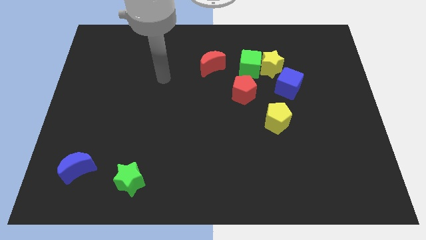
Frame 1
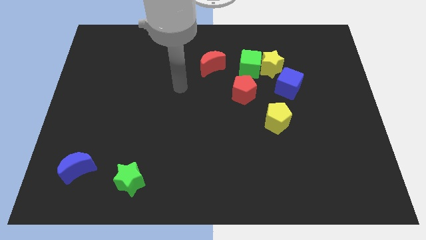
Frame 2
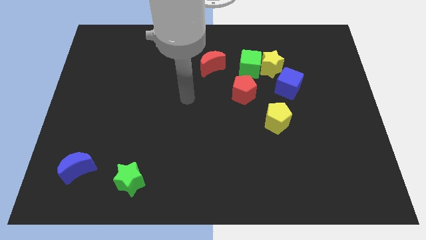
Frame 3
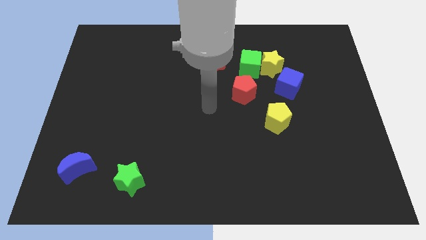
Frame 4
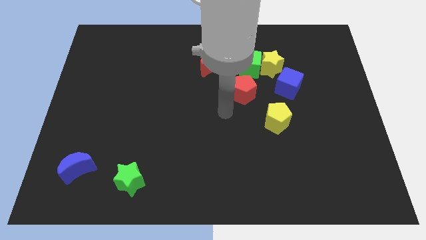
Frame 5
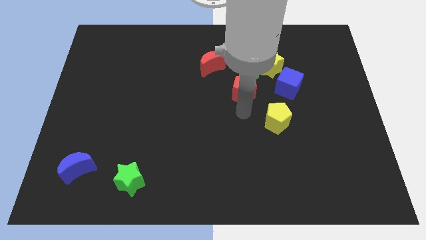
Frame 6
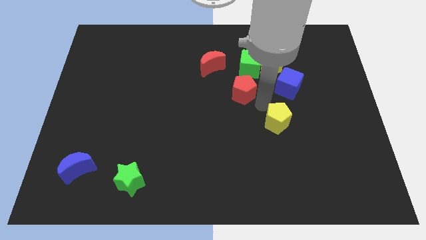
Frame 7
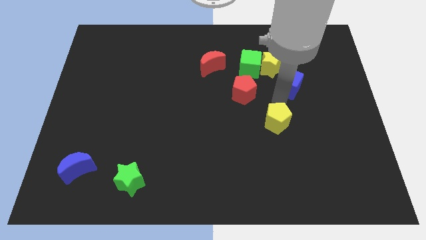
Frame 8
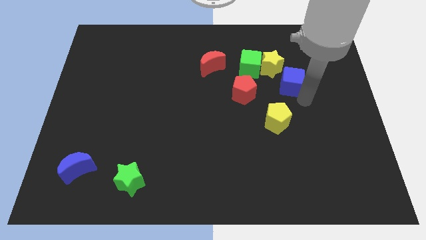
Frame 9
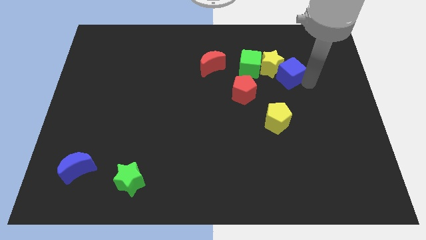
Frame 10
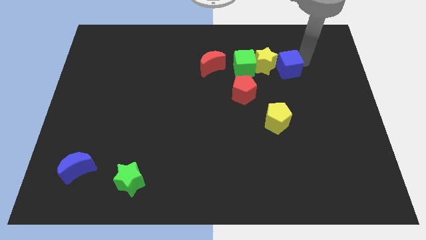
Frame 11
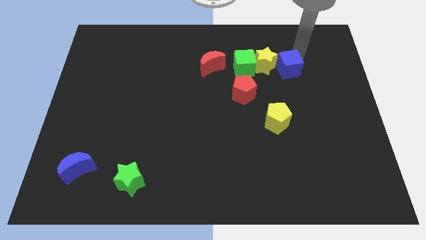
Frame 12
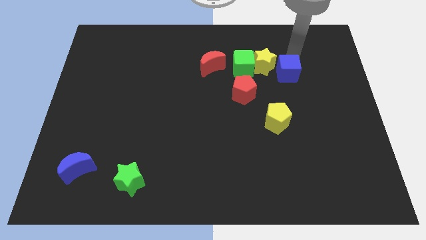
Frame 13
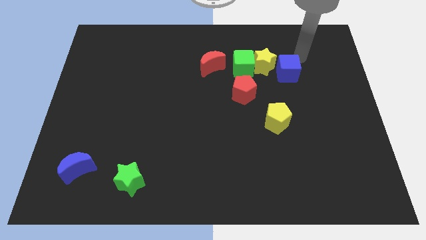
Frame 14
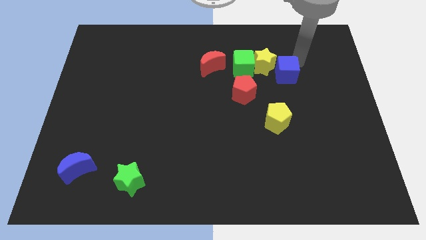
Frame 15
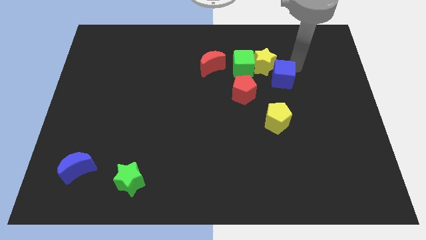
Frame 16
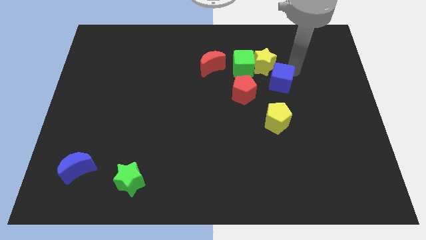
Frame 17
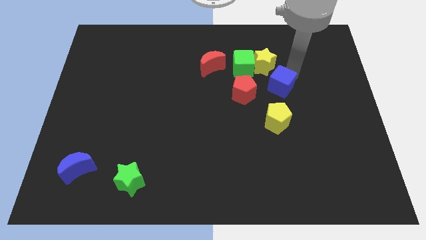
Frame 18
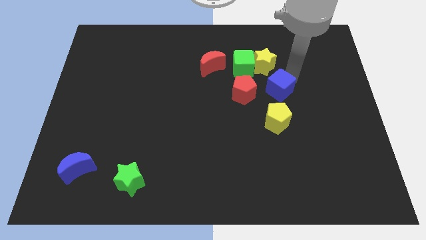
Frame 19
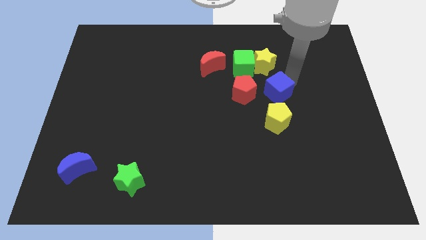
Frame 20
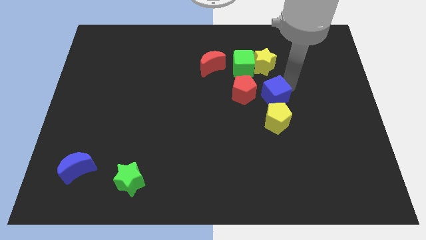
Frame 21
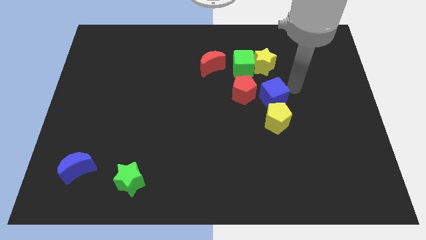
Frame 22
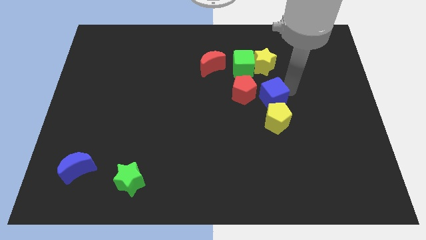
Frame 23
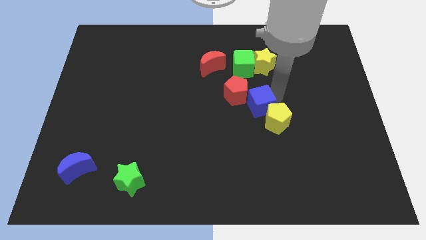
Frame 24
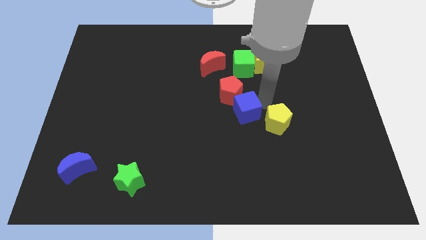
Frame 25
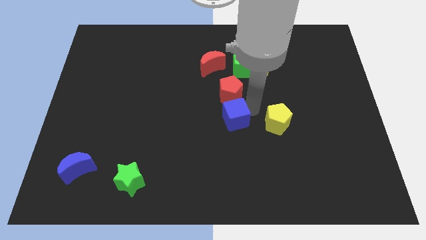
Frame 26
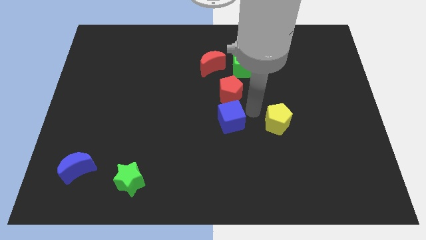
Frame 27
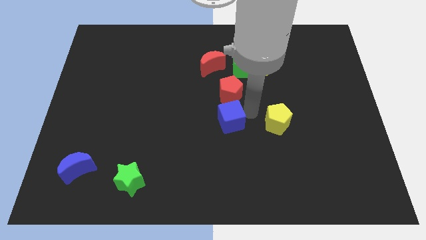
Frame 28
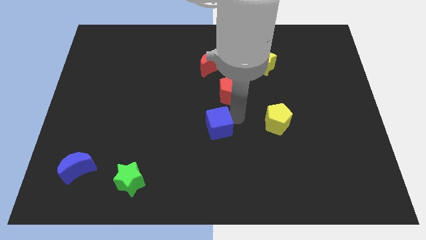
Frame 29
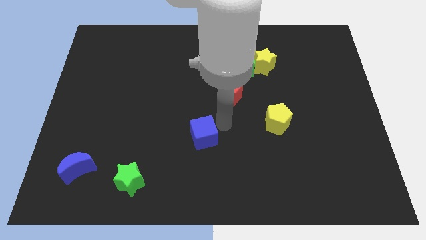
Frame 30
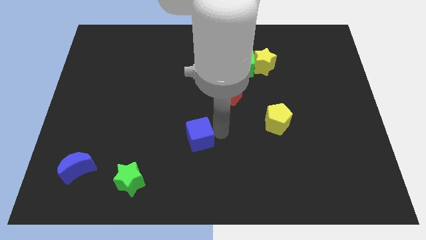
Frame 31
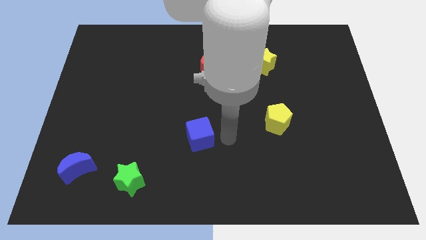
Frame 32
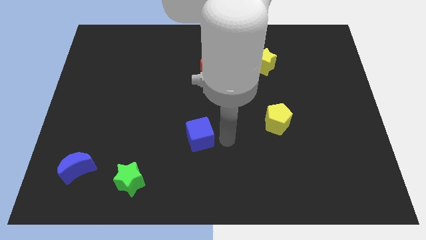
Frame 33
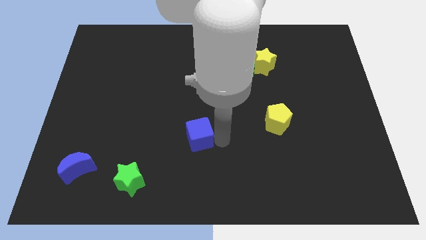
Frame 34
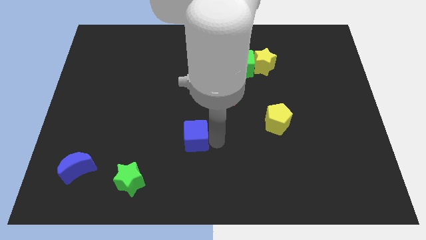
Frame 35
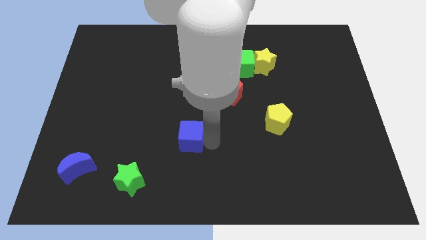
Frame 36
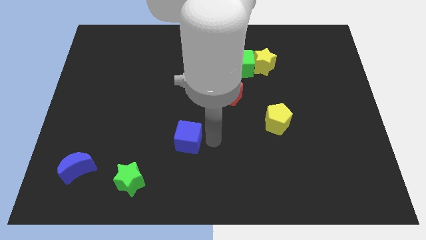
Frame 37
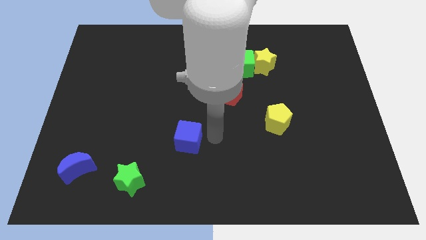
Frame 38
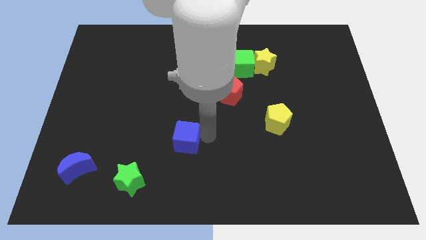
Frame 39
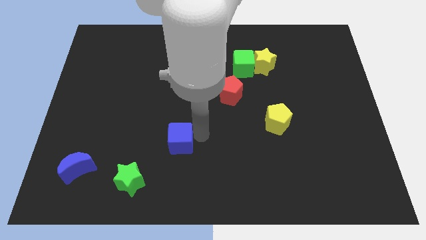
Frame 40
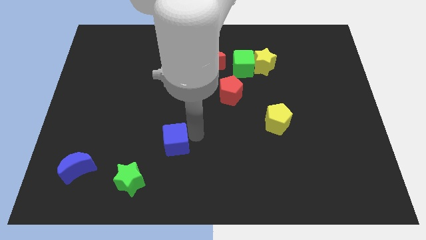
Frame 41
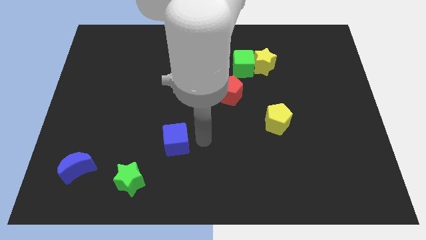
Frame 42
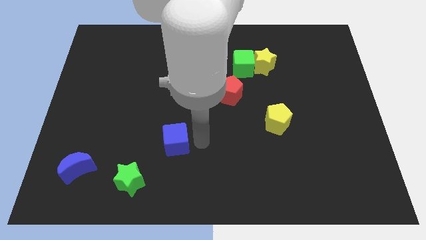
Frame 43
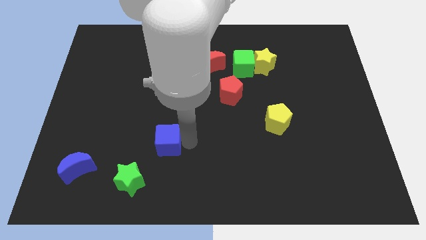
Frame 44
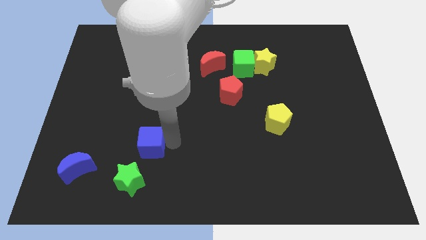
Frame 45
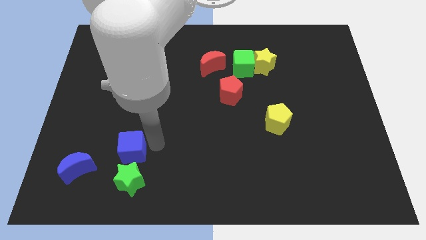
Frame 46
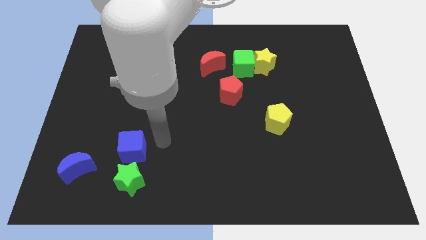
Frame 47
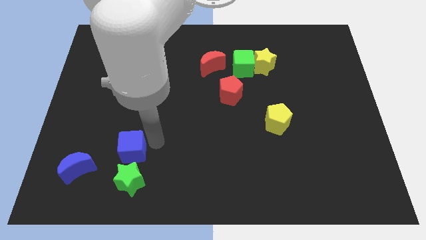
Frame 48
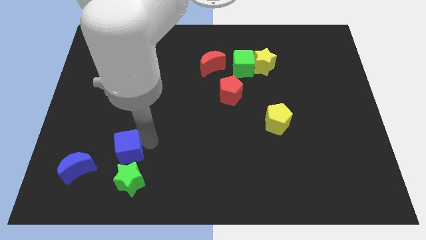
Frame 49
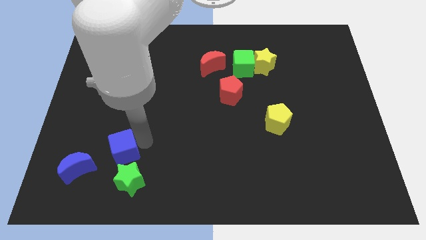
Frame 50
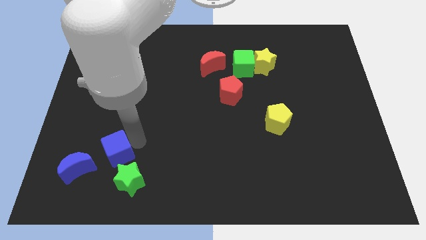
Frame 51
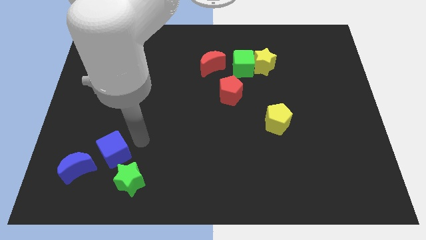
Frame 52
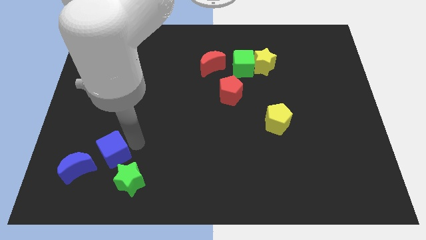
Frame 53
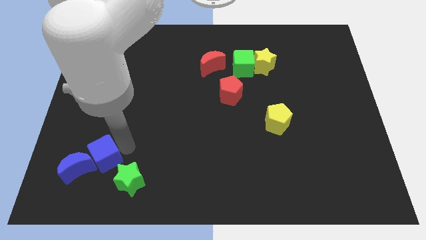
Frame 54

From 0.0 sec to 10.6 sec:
move the blue cube to the blue moon

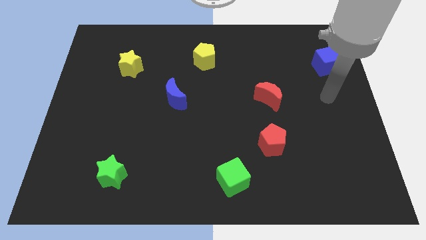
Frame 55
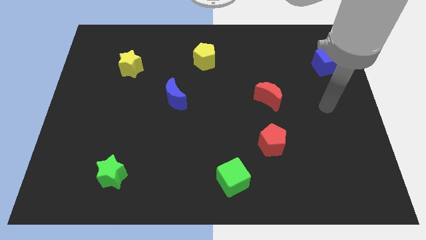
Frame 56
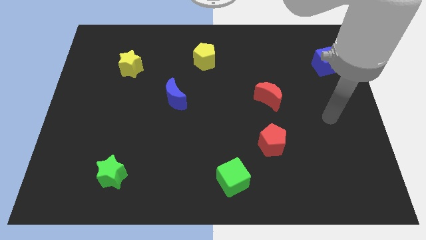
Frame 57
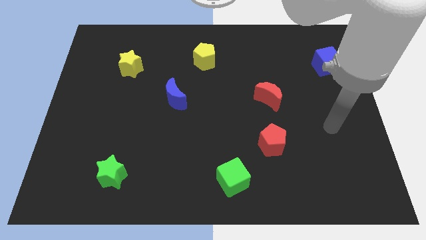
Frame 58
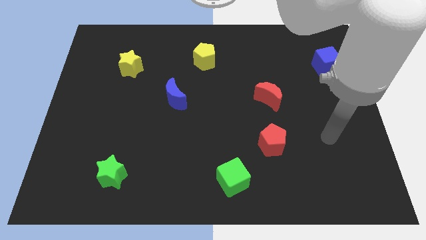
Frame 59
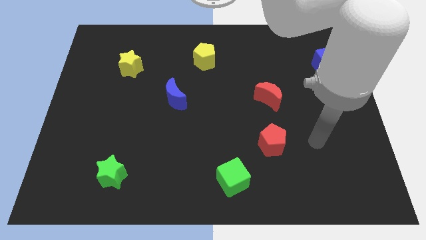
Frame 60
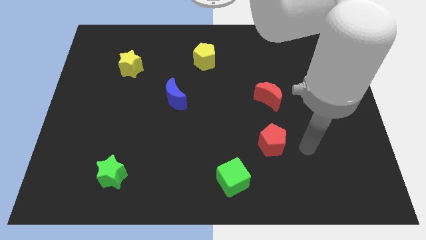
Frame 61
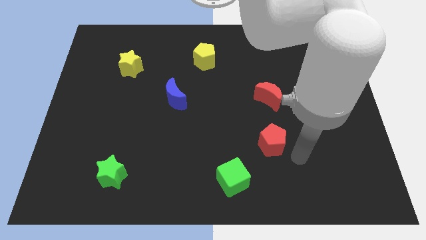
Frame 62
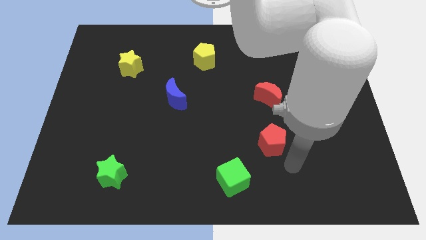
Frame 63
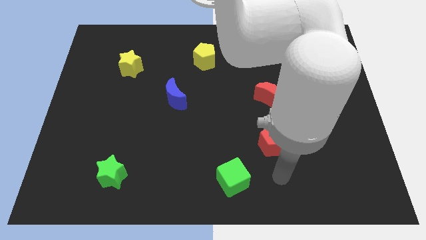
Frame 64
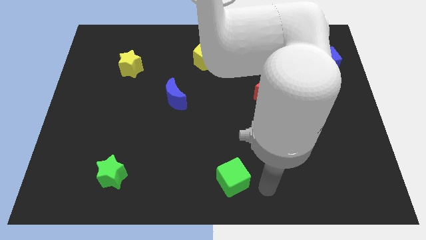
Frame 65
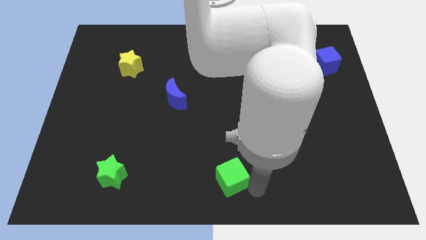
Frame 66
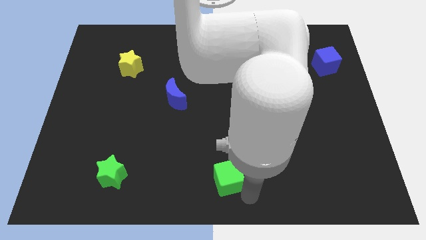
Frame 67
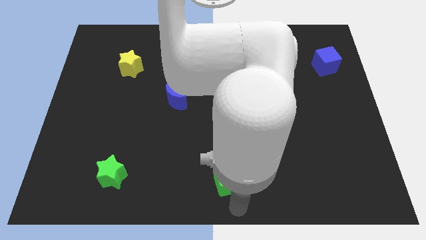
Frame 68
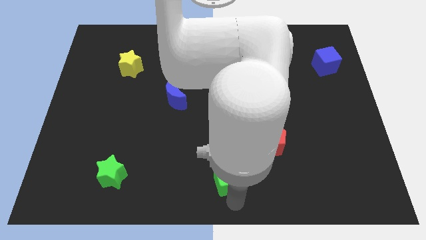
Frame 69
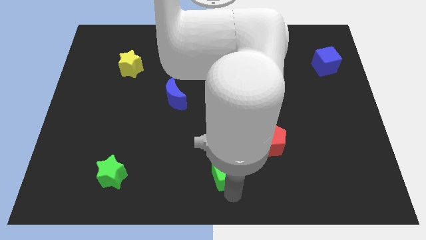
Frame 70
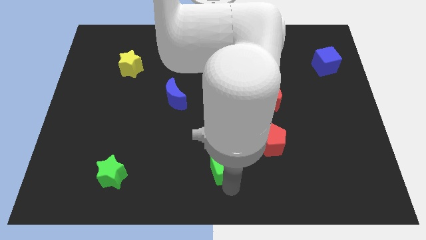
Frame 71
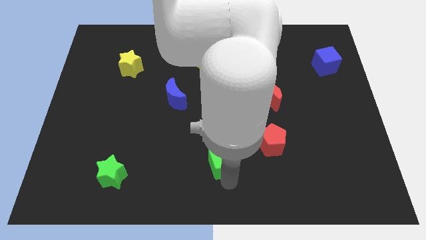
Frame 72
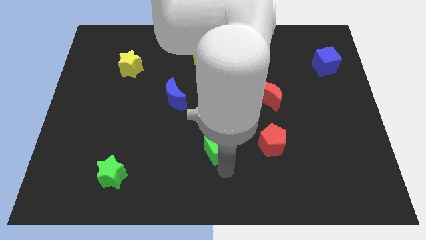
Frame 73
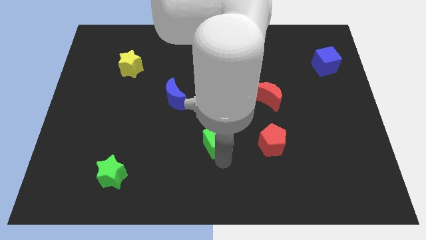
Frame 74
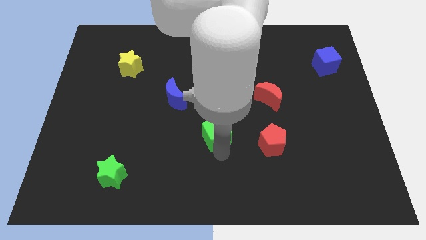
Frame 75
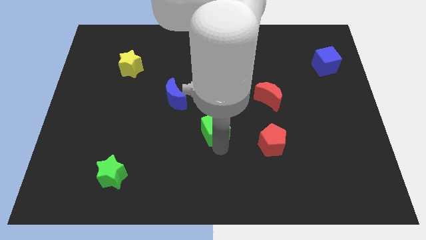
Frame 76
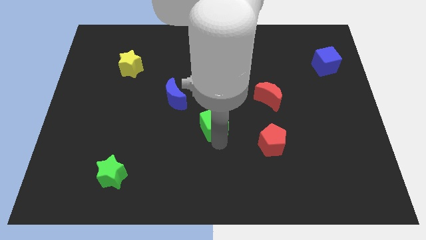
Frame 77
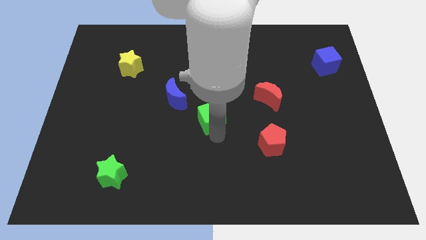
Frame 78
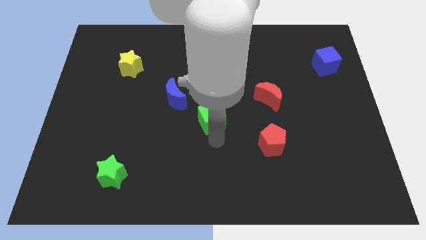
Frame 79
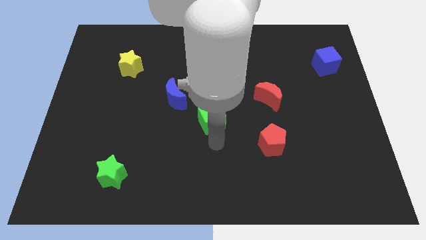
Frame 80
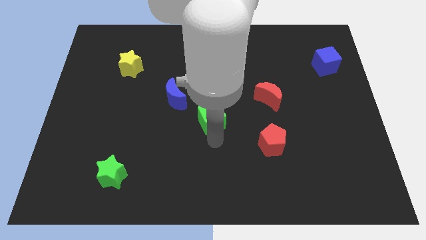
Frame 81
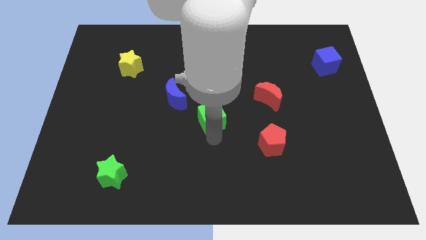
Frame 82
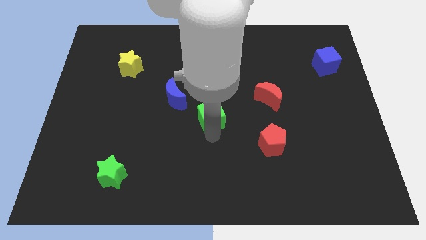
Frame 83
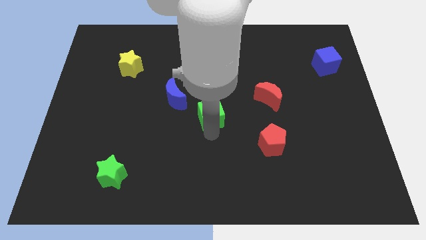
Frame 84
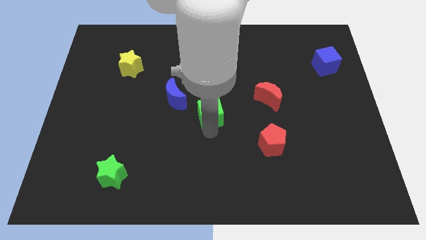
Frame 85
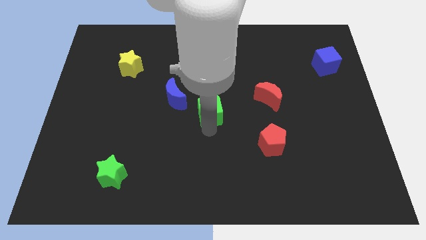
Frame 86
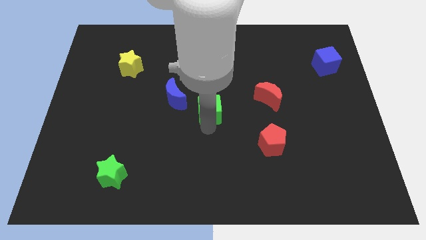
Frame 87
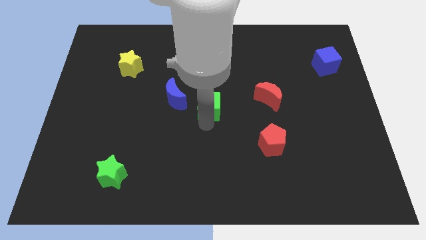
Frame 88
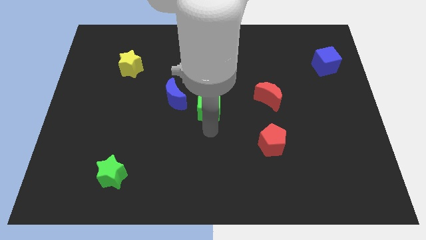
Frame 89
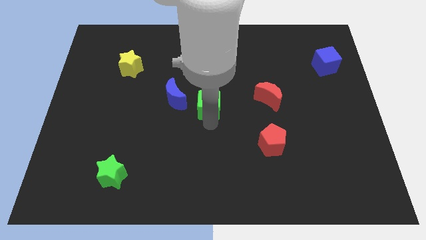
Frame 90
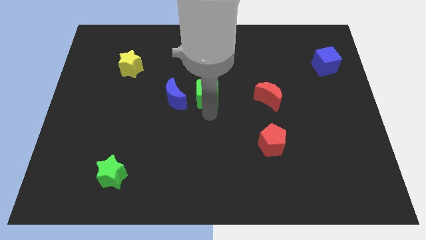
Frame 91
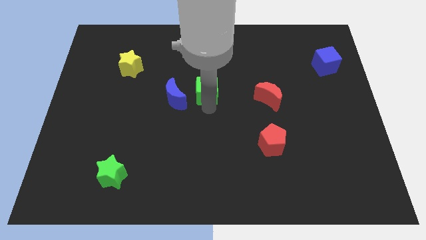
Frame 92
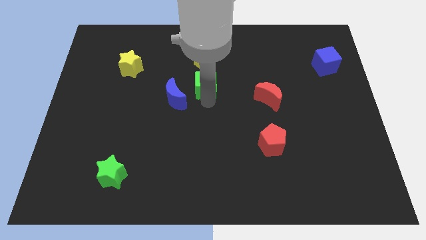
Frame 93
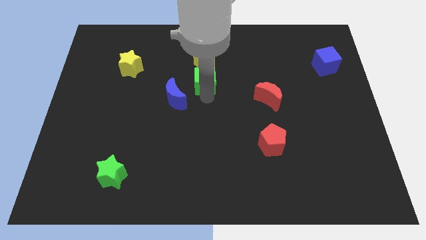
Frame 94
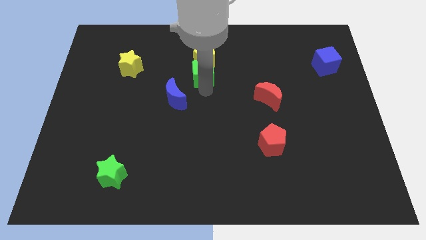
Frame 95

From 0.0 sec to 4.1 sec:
put the green cube towards the yellow pentagon
